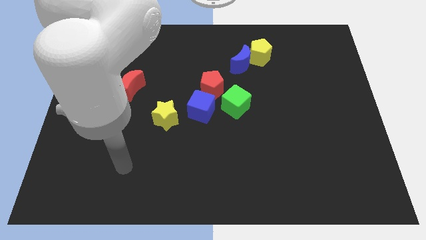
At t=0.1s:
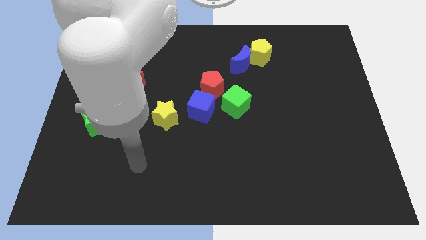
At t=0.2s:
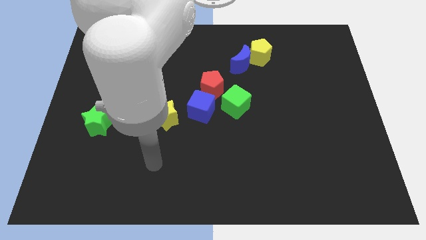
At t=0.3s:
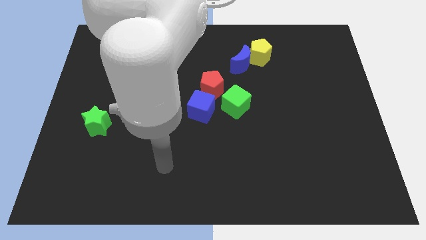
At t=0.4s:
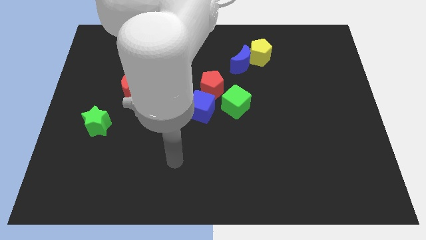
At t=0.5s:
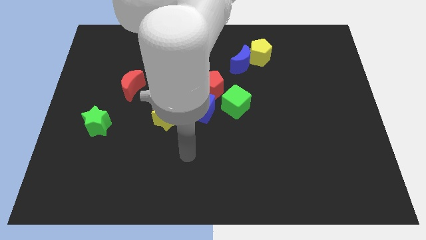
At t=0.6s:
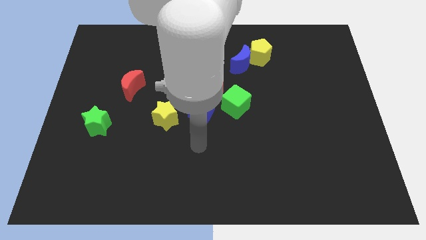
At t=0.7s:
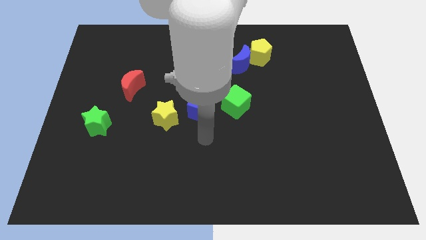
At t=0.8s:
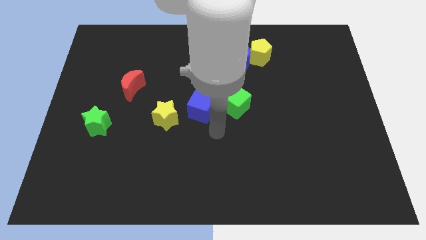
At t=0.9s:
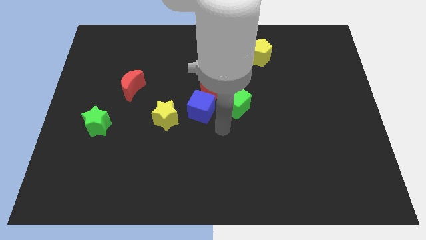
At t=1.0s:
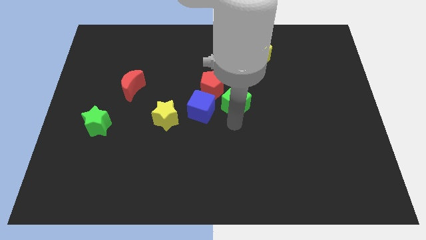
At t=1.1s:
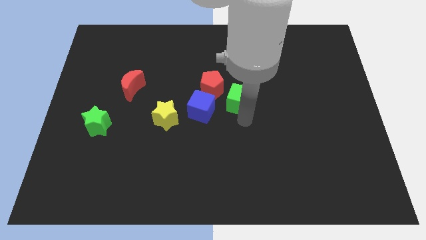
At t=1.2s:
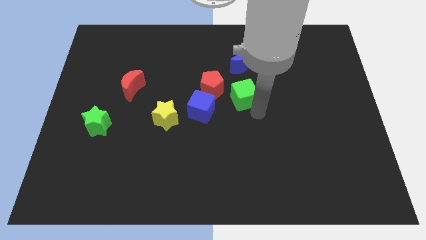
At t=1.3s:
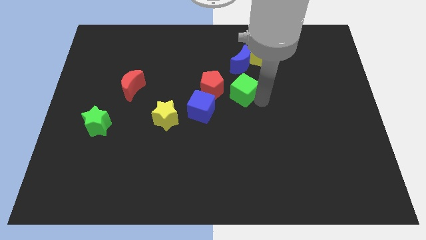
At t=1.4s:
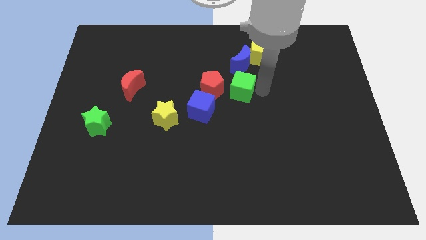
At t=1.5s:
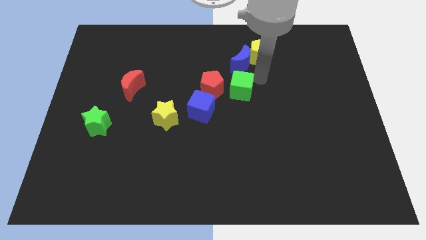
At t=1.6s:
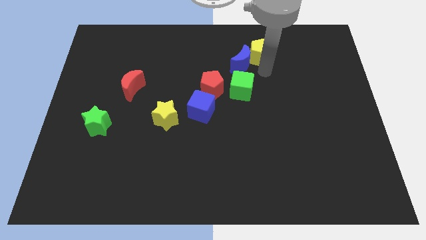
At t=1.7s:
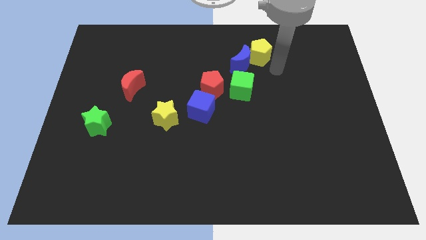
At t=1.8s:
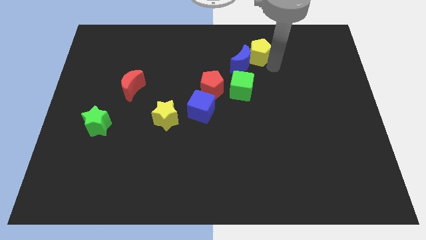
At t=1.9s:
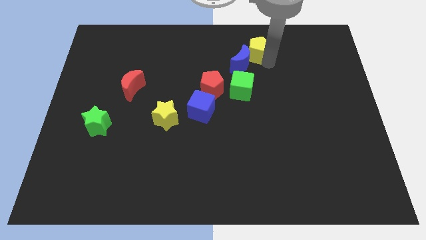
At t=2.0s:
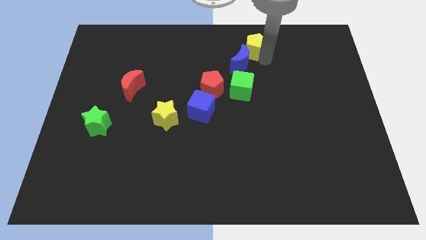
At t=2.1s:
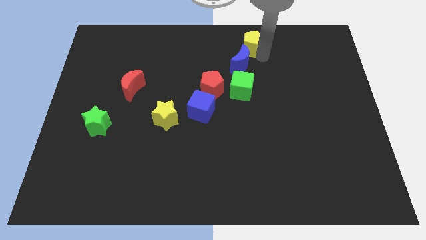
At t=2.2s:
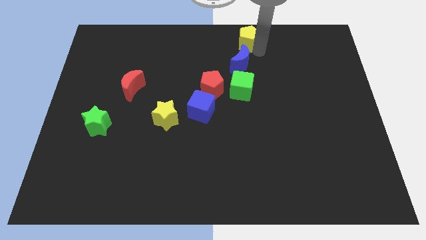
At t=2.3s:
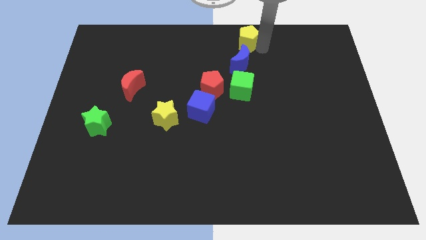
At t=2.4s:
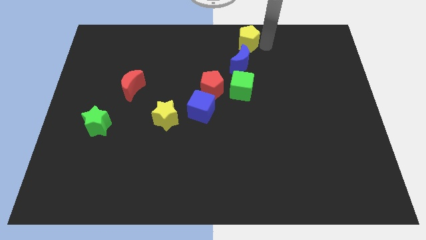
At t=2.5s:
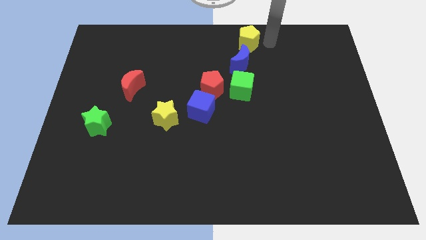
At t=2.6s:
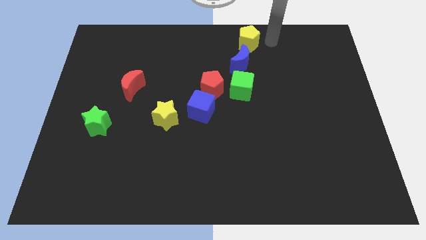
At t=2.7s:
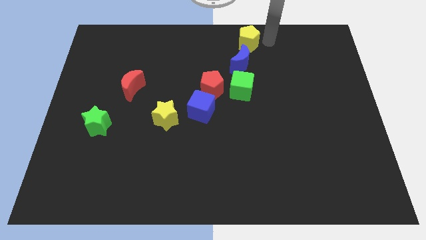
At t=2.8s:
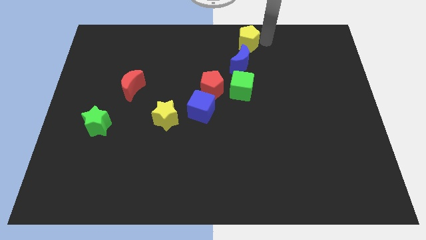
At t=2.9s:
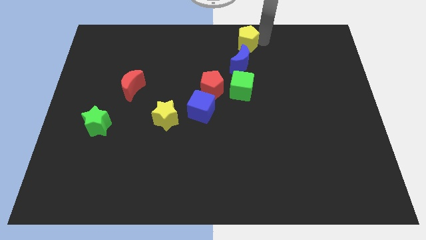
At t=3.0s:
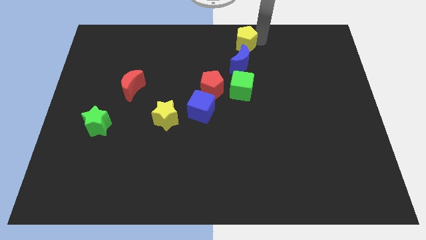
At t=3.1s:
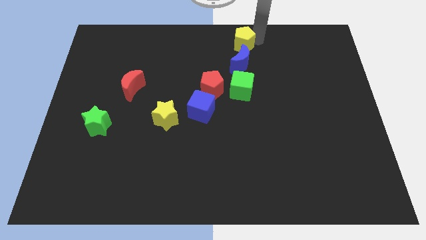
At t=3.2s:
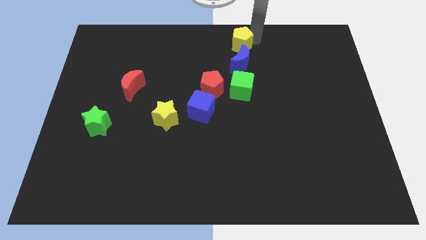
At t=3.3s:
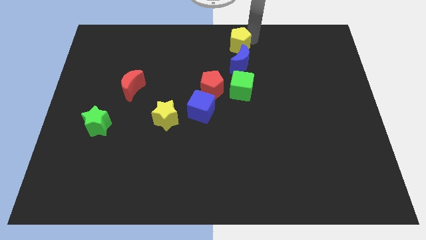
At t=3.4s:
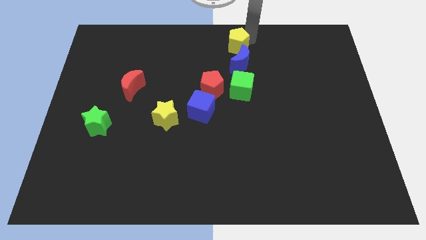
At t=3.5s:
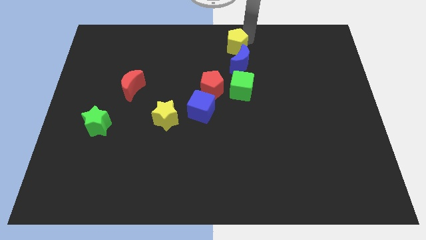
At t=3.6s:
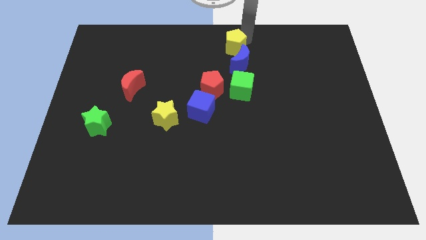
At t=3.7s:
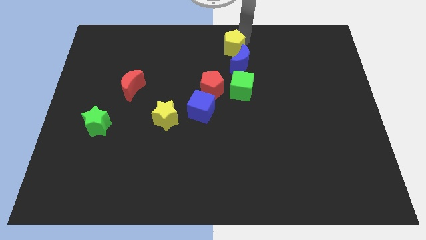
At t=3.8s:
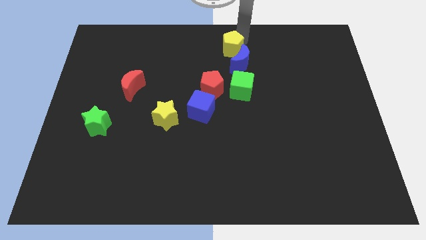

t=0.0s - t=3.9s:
slightly push the yellow pentagon left

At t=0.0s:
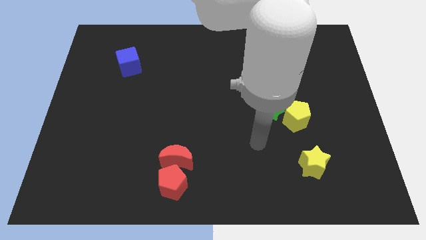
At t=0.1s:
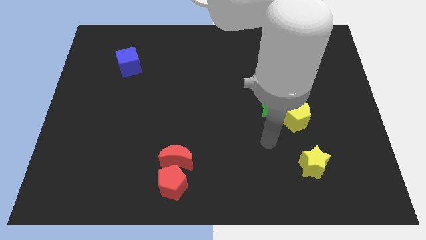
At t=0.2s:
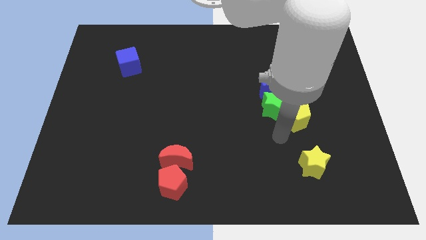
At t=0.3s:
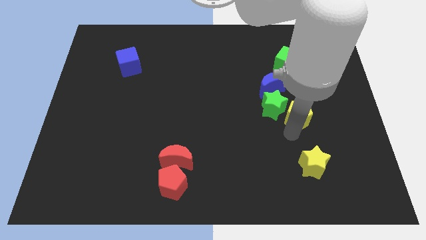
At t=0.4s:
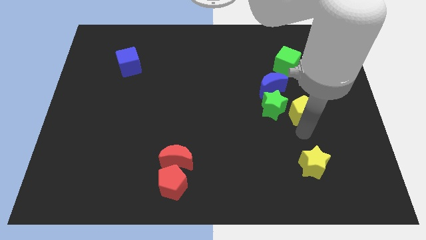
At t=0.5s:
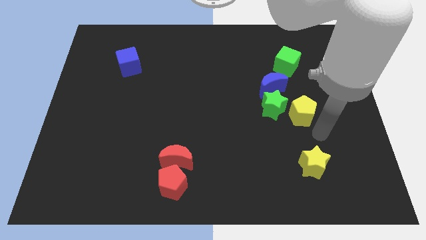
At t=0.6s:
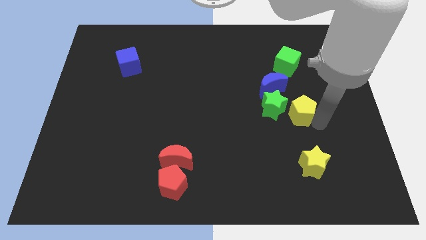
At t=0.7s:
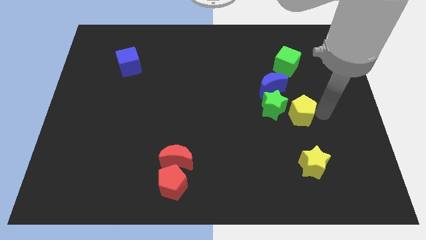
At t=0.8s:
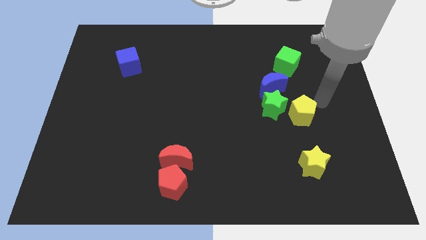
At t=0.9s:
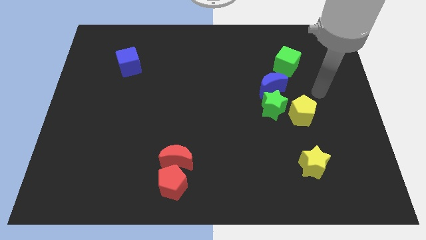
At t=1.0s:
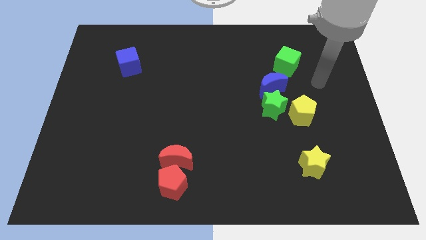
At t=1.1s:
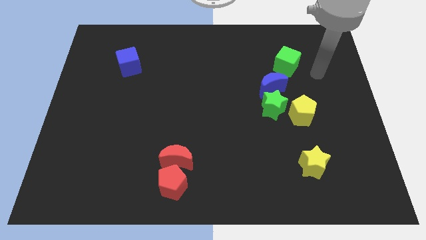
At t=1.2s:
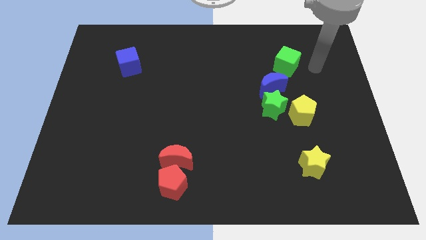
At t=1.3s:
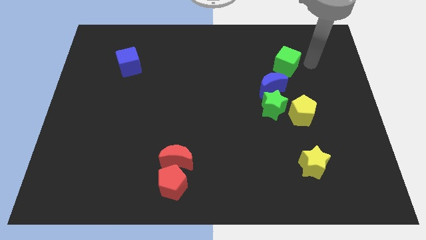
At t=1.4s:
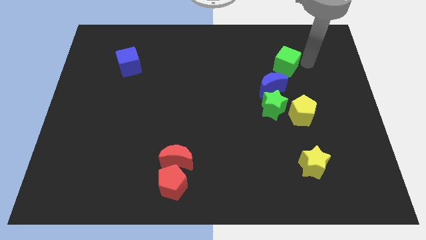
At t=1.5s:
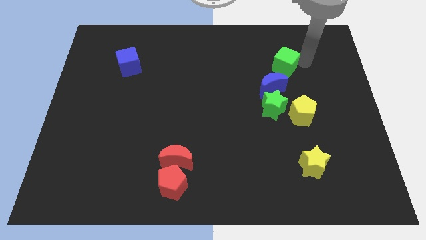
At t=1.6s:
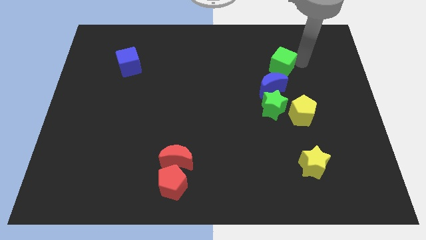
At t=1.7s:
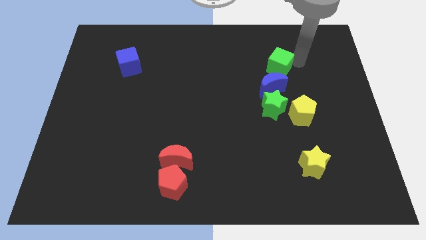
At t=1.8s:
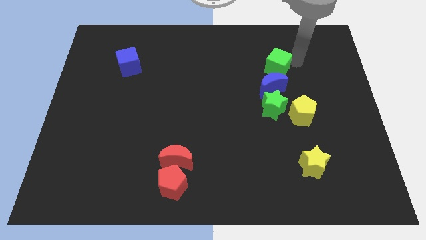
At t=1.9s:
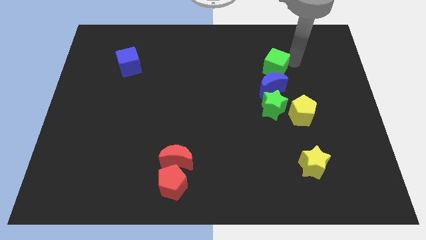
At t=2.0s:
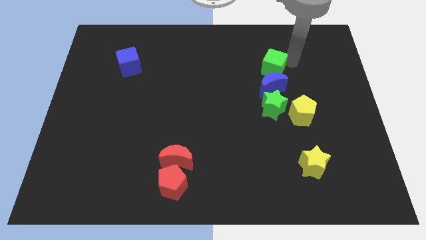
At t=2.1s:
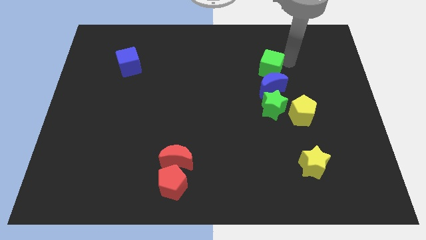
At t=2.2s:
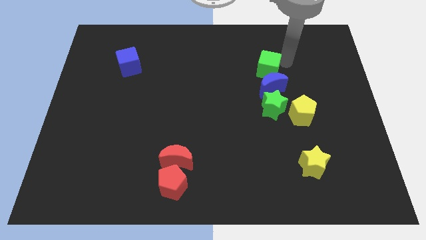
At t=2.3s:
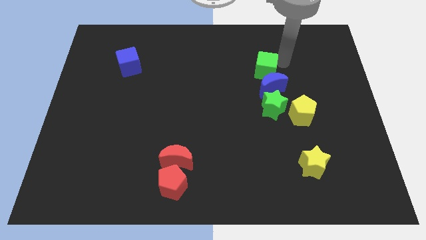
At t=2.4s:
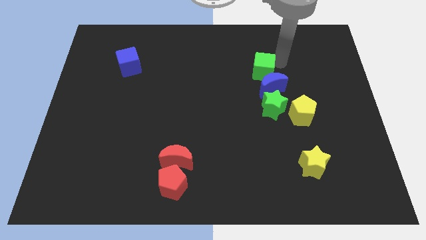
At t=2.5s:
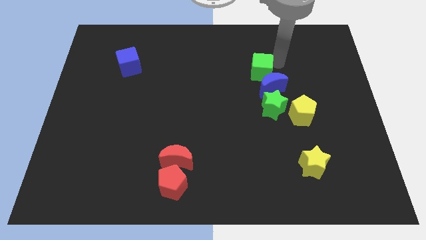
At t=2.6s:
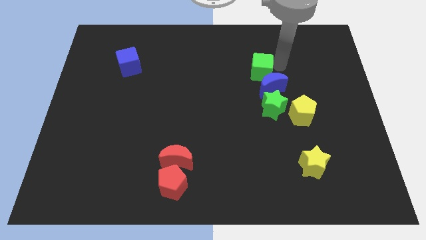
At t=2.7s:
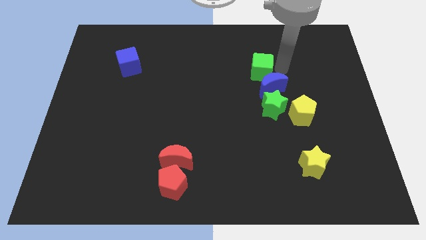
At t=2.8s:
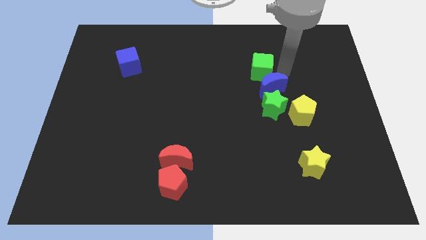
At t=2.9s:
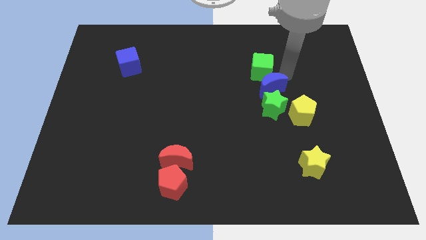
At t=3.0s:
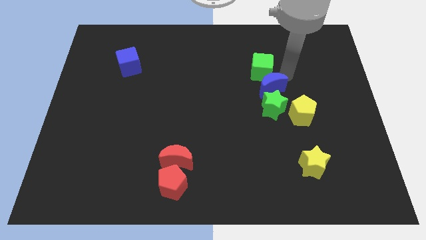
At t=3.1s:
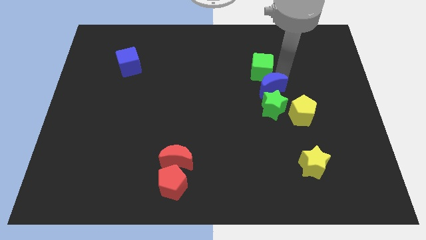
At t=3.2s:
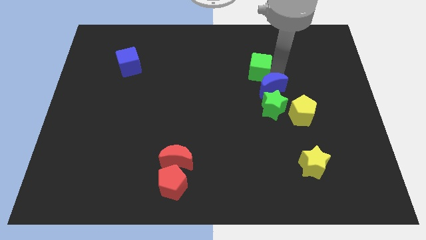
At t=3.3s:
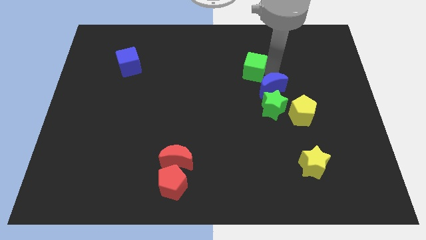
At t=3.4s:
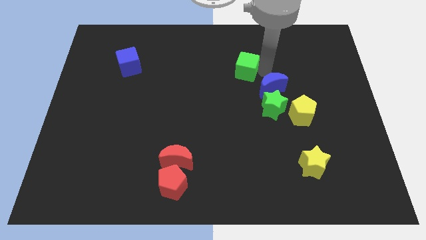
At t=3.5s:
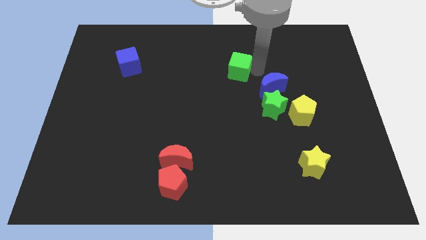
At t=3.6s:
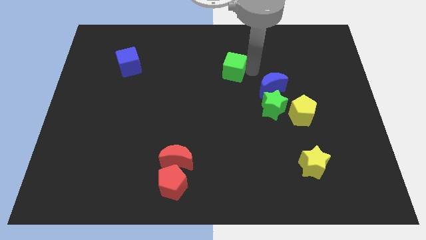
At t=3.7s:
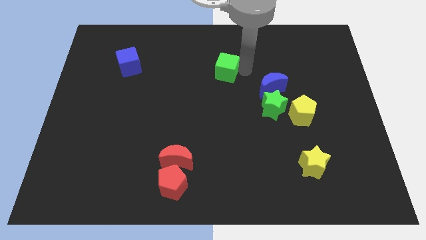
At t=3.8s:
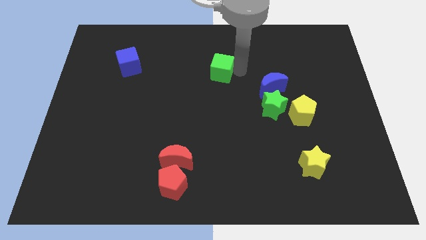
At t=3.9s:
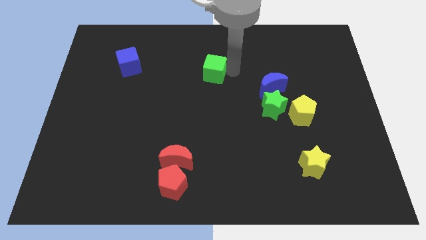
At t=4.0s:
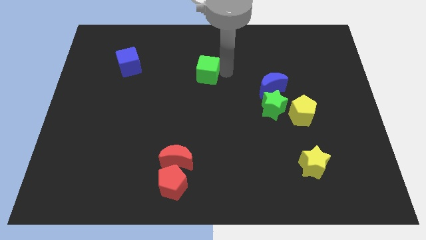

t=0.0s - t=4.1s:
push the green cube left

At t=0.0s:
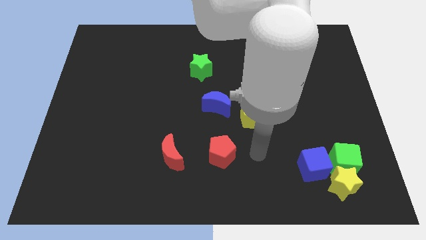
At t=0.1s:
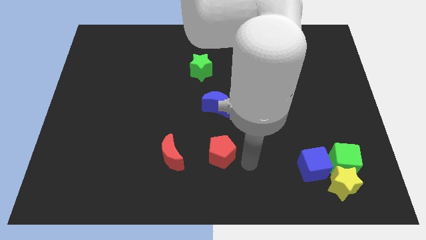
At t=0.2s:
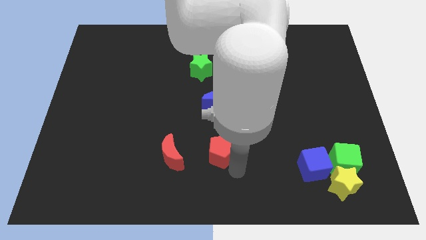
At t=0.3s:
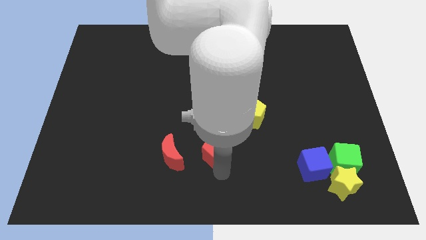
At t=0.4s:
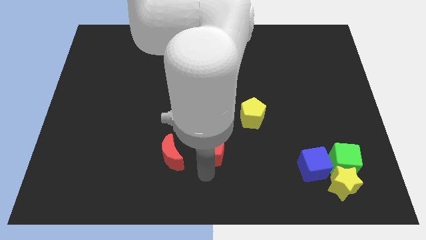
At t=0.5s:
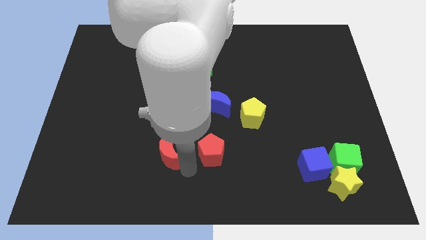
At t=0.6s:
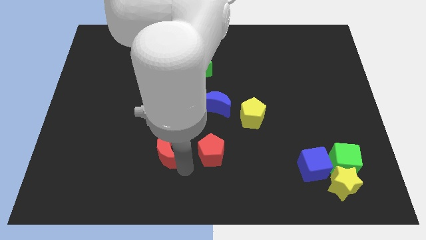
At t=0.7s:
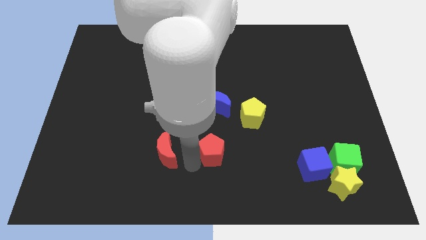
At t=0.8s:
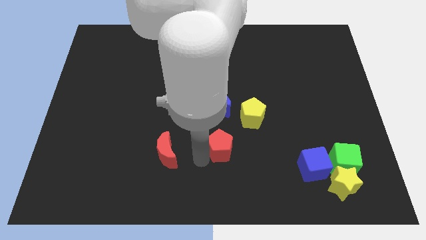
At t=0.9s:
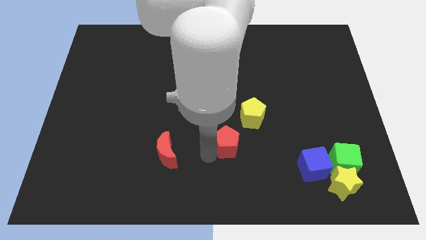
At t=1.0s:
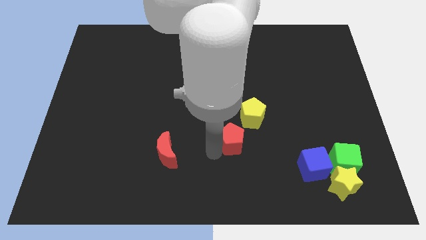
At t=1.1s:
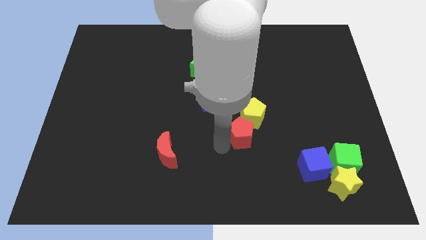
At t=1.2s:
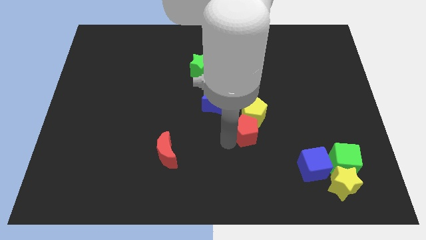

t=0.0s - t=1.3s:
slightly move the red pentagon up and then right
